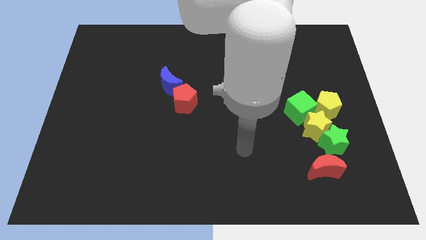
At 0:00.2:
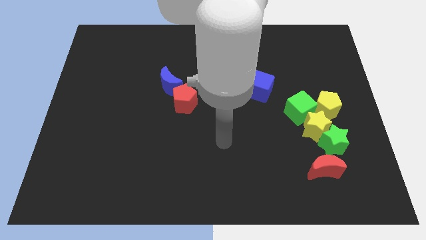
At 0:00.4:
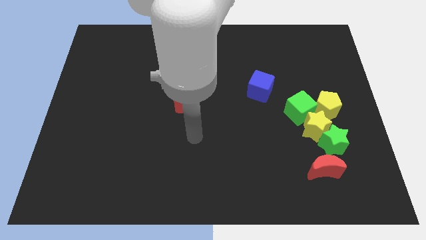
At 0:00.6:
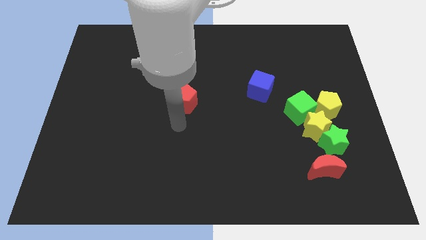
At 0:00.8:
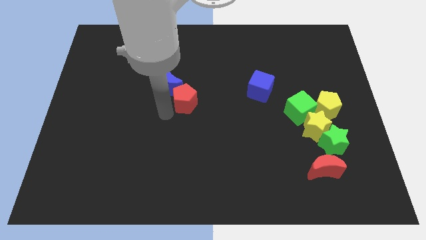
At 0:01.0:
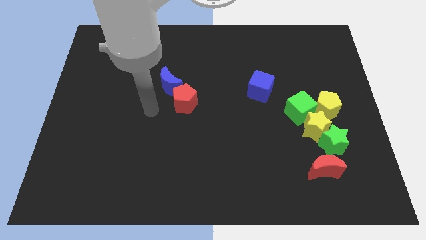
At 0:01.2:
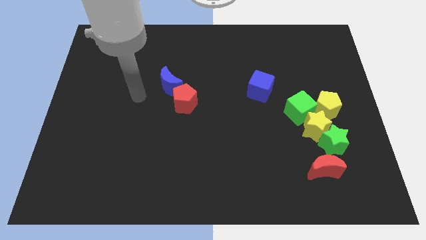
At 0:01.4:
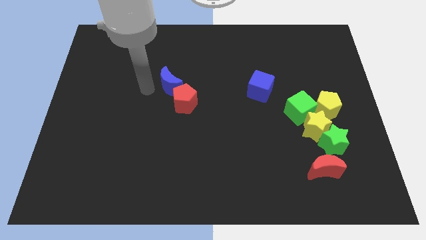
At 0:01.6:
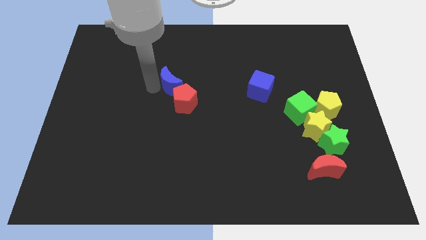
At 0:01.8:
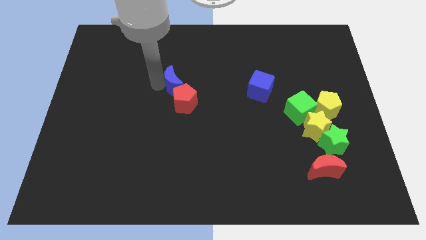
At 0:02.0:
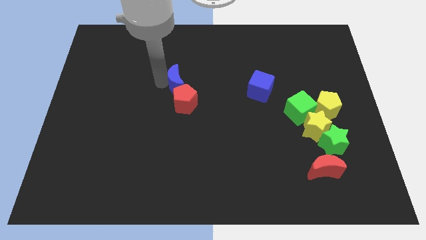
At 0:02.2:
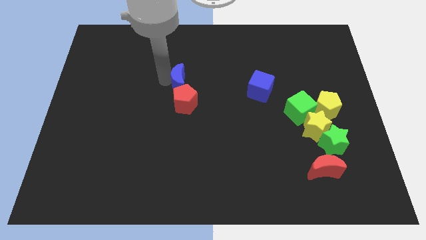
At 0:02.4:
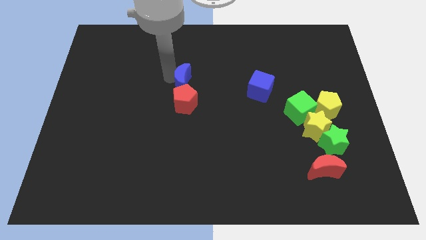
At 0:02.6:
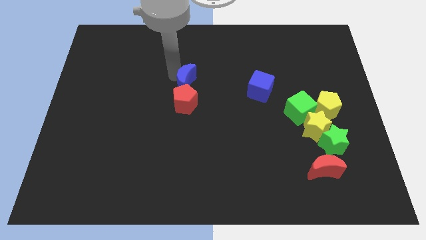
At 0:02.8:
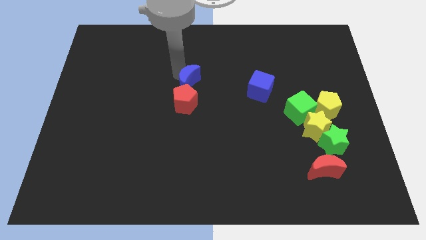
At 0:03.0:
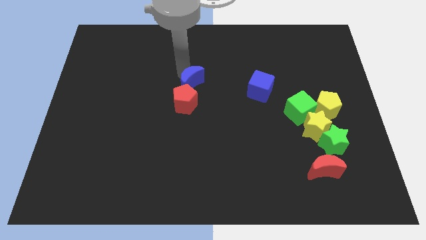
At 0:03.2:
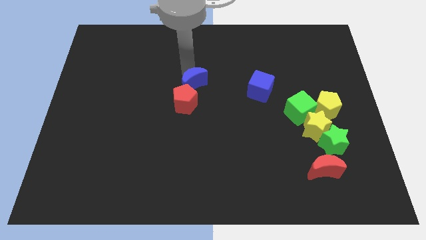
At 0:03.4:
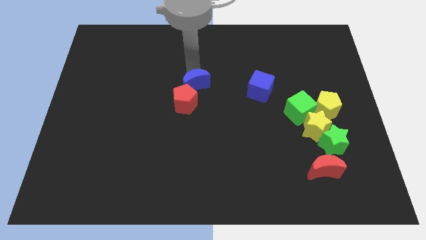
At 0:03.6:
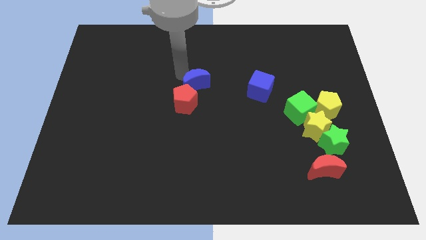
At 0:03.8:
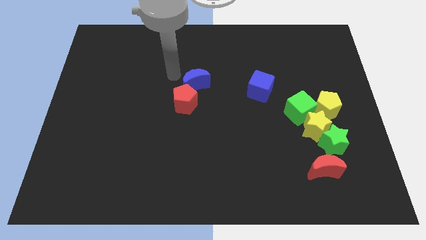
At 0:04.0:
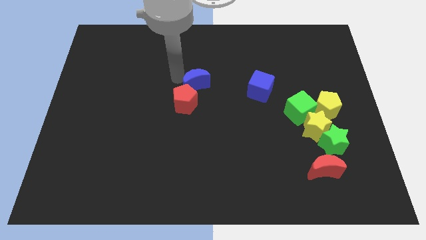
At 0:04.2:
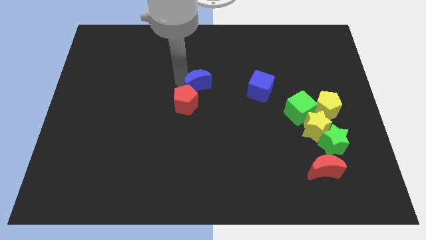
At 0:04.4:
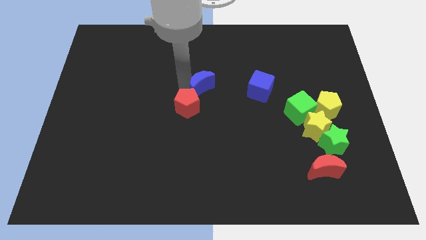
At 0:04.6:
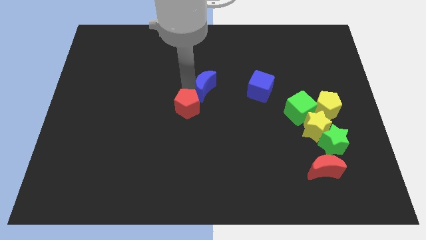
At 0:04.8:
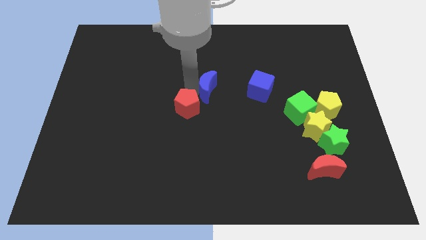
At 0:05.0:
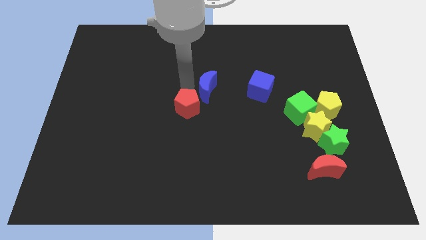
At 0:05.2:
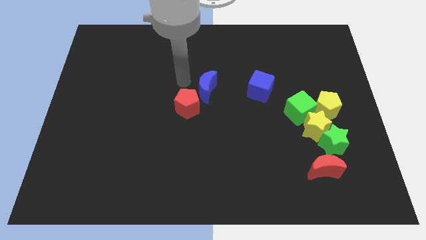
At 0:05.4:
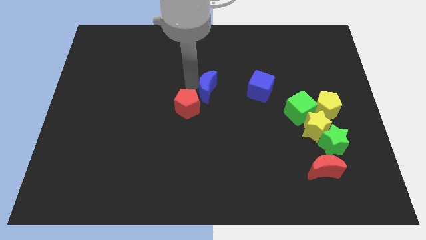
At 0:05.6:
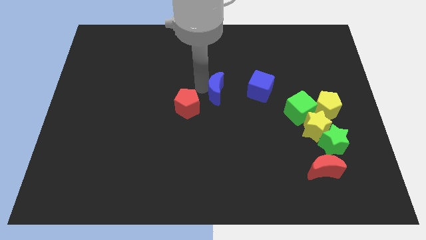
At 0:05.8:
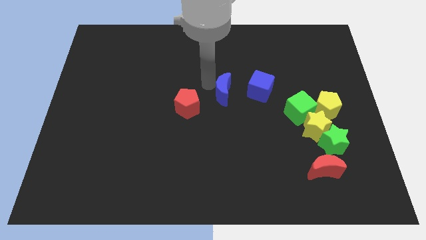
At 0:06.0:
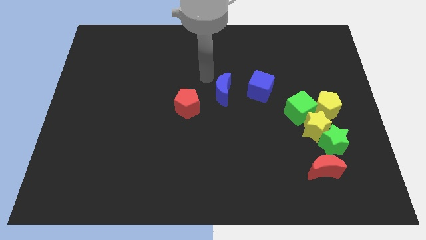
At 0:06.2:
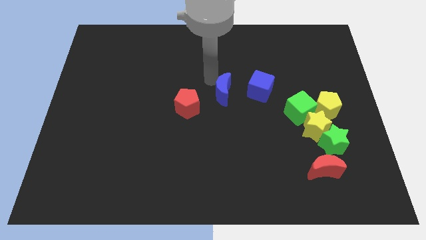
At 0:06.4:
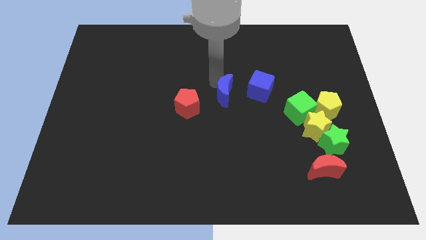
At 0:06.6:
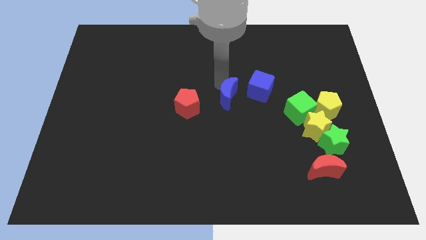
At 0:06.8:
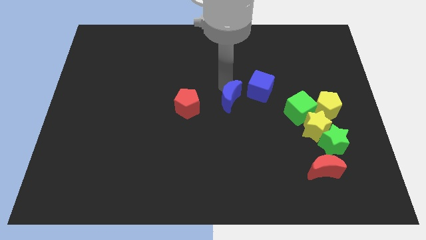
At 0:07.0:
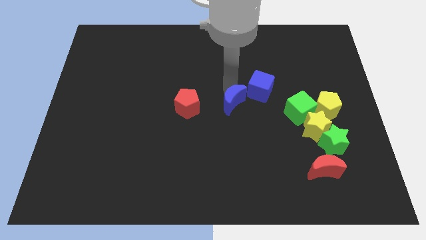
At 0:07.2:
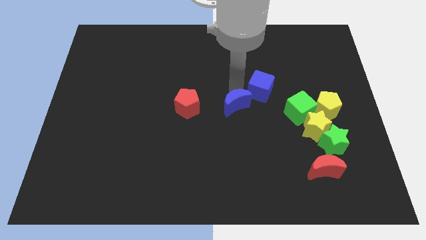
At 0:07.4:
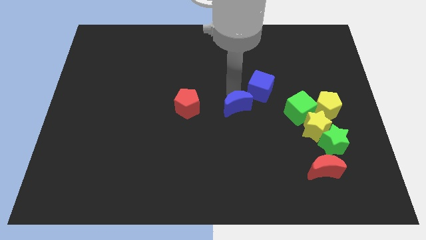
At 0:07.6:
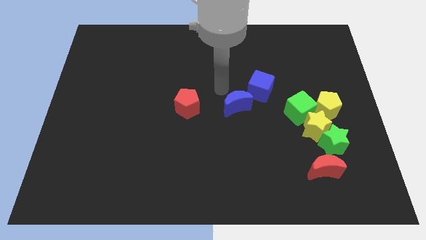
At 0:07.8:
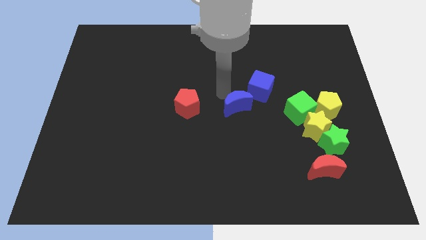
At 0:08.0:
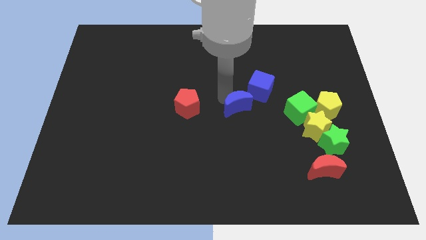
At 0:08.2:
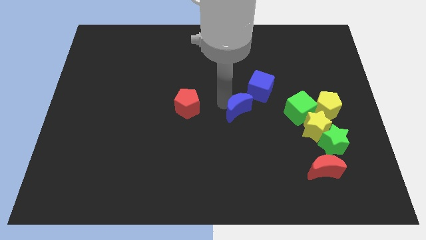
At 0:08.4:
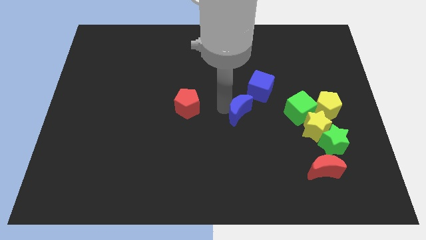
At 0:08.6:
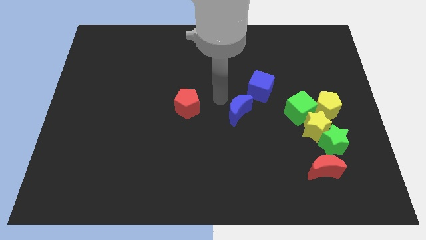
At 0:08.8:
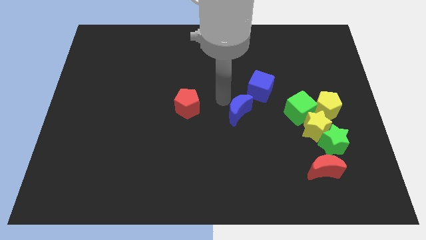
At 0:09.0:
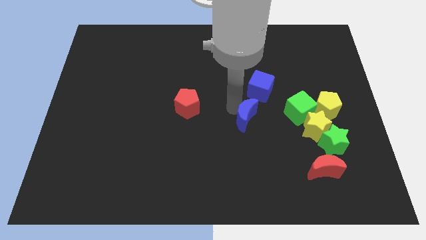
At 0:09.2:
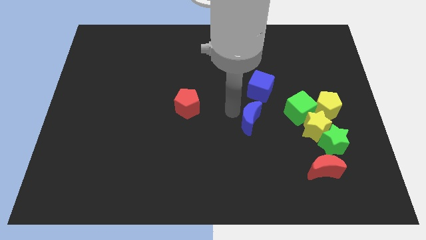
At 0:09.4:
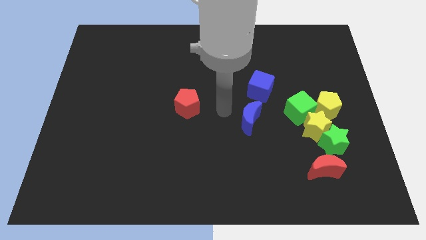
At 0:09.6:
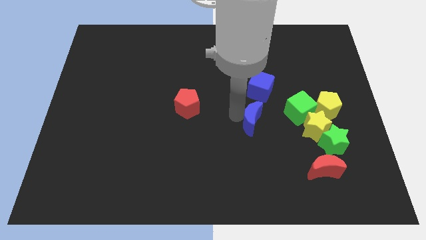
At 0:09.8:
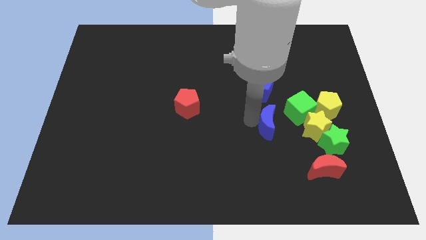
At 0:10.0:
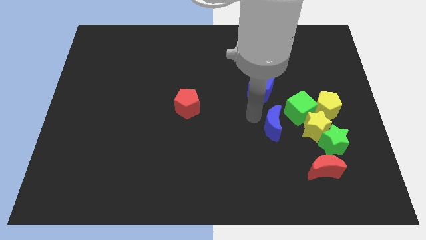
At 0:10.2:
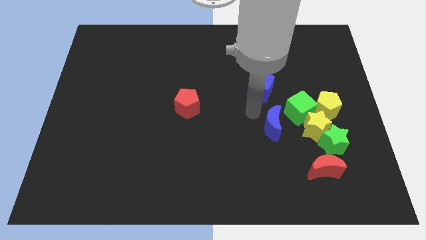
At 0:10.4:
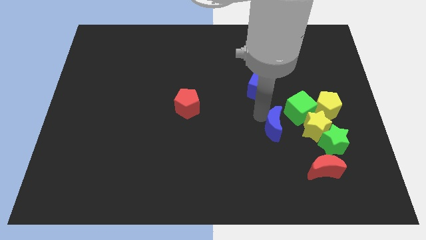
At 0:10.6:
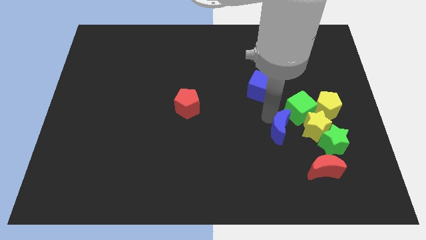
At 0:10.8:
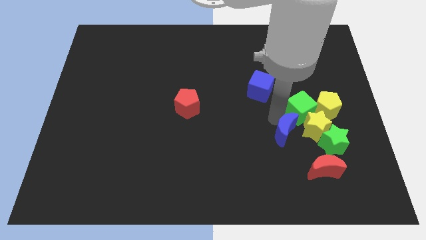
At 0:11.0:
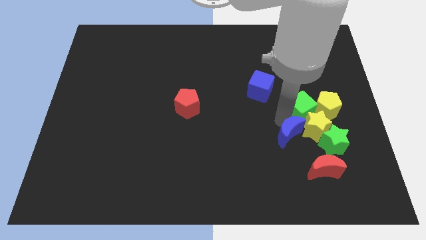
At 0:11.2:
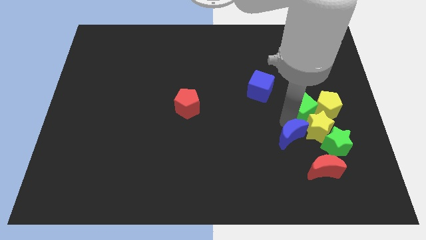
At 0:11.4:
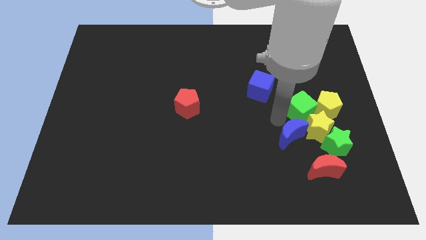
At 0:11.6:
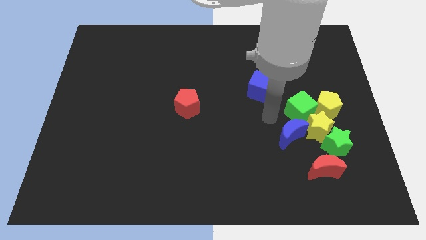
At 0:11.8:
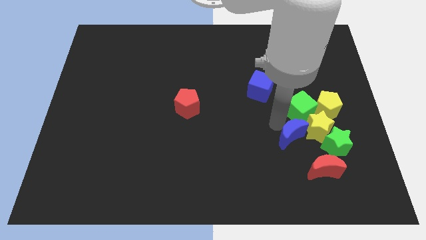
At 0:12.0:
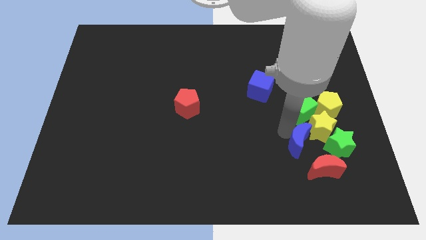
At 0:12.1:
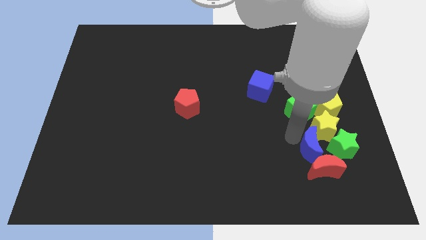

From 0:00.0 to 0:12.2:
slide the blue moon to the red moon
